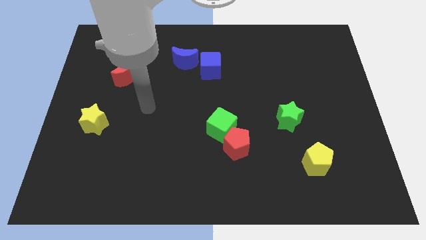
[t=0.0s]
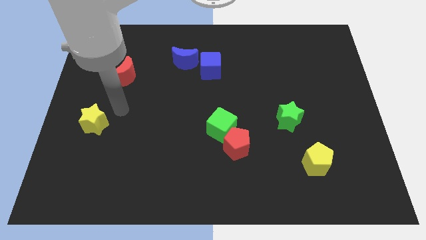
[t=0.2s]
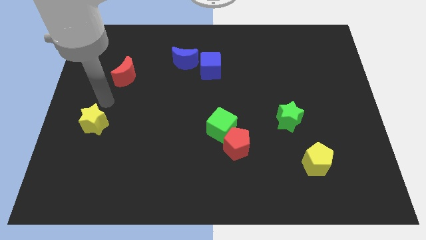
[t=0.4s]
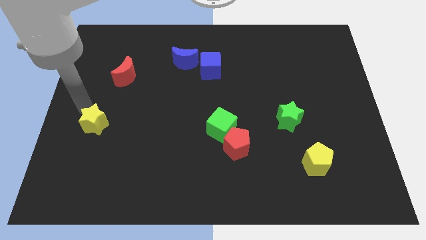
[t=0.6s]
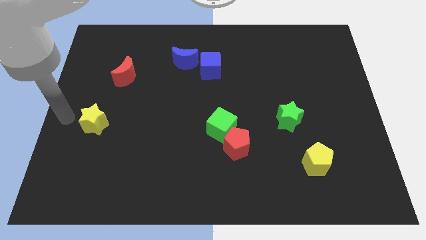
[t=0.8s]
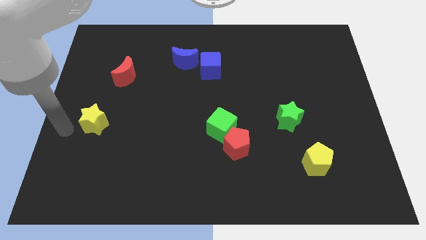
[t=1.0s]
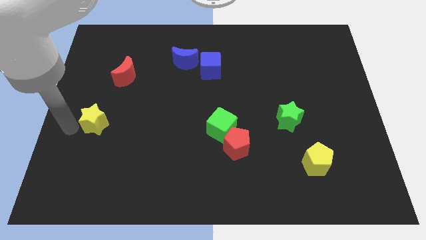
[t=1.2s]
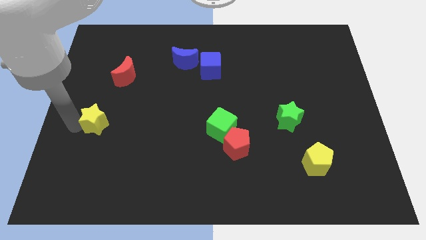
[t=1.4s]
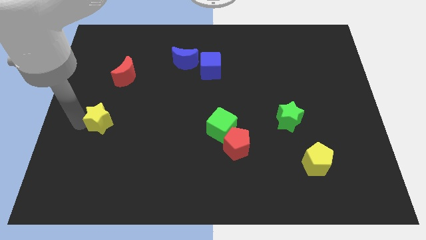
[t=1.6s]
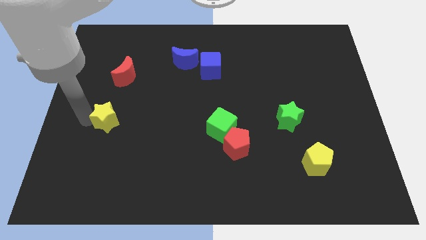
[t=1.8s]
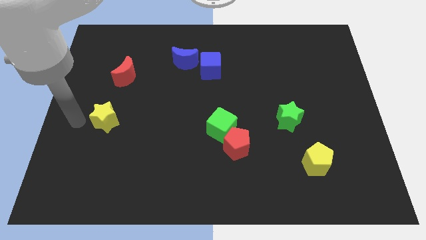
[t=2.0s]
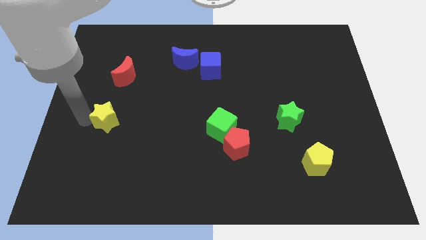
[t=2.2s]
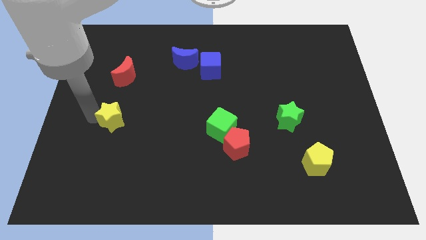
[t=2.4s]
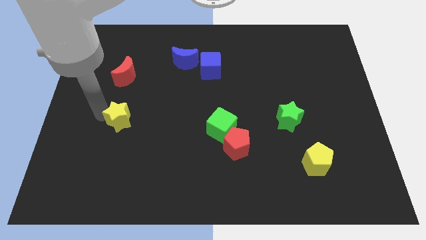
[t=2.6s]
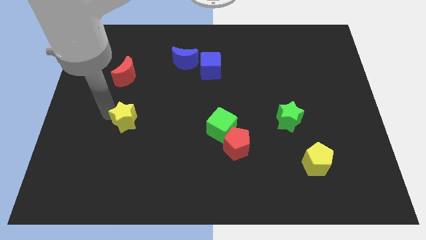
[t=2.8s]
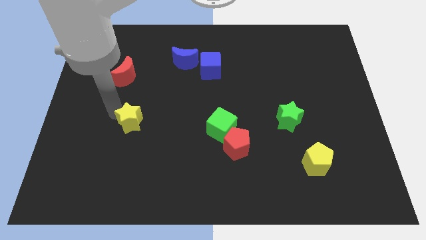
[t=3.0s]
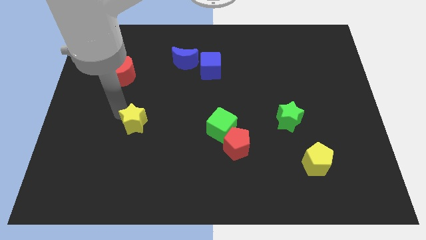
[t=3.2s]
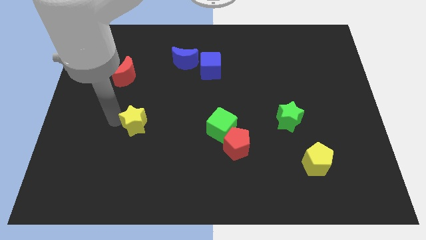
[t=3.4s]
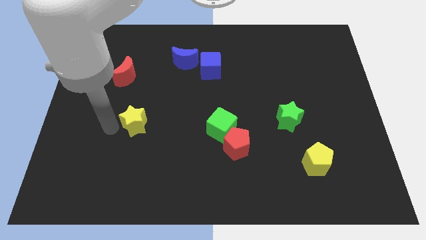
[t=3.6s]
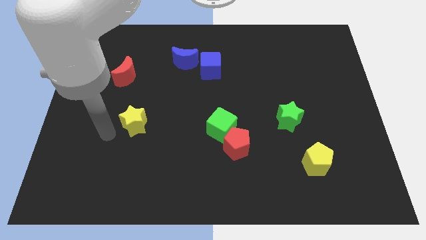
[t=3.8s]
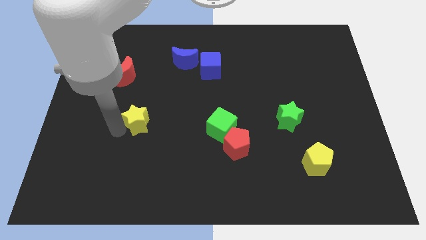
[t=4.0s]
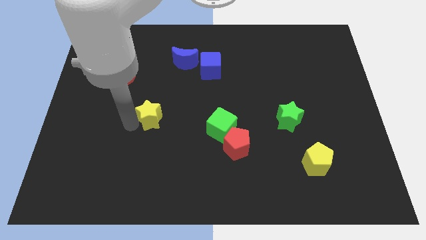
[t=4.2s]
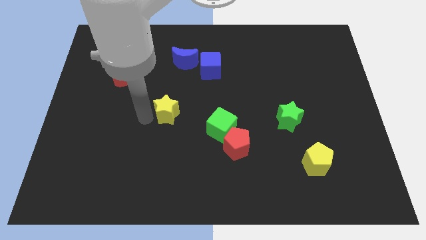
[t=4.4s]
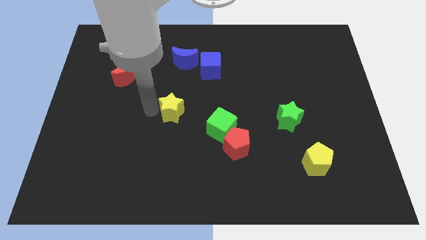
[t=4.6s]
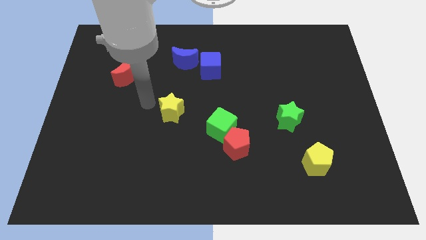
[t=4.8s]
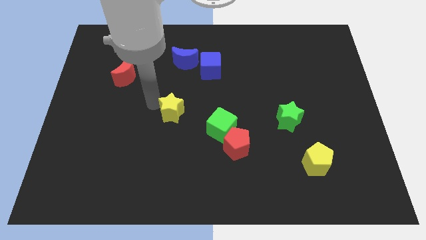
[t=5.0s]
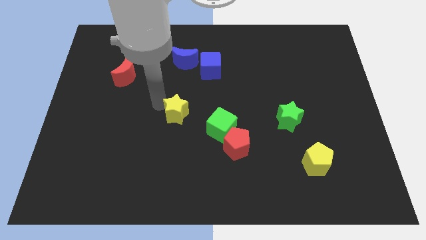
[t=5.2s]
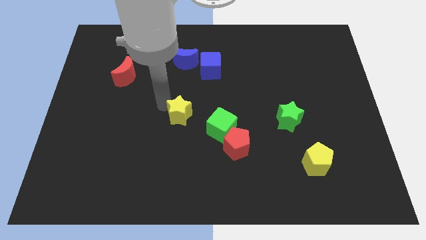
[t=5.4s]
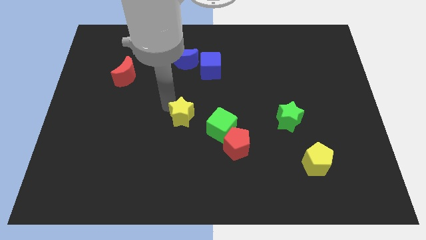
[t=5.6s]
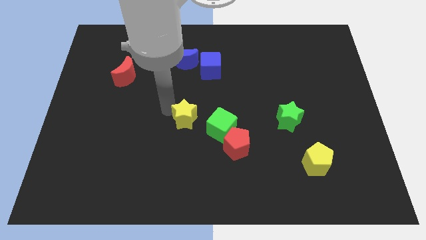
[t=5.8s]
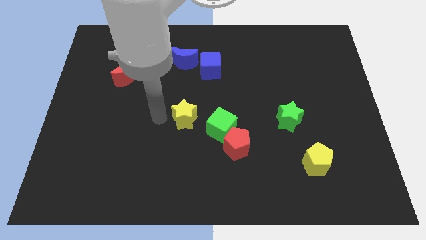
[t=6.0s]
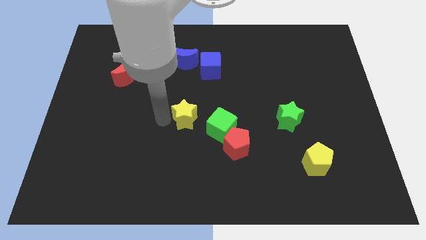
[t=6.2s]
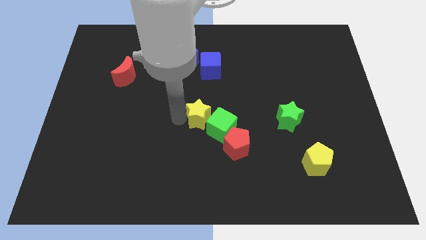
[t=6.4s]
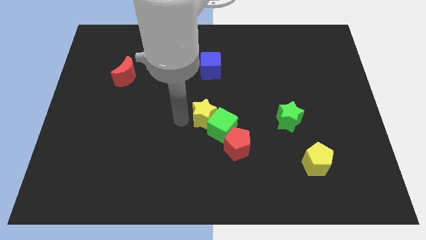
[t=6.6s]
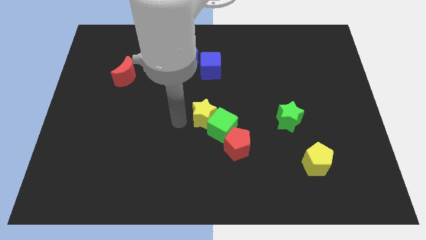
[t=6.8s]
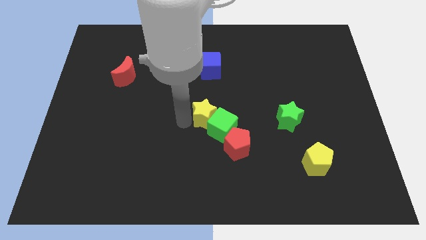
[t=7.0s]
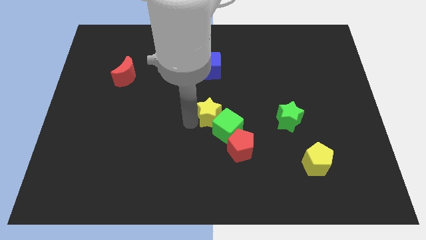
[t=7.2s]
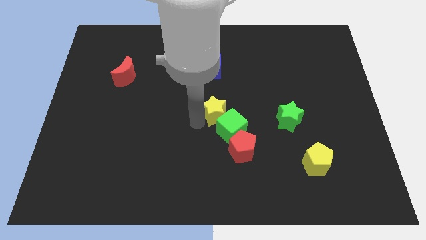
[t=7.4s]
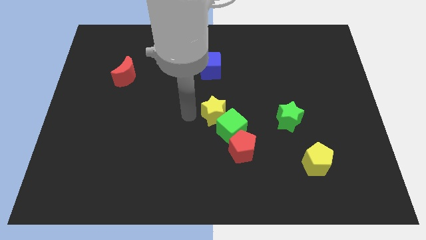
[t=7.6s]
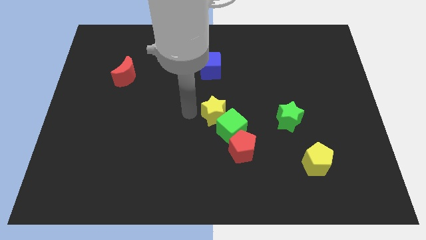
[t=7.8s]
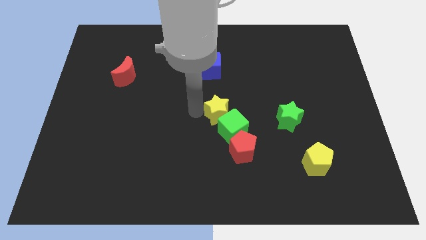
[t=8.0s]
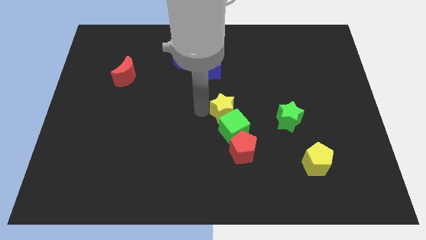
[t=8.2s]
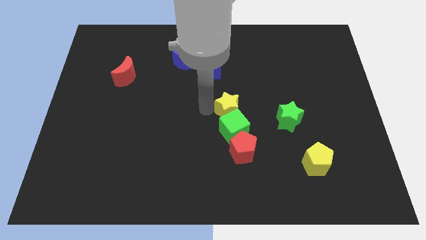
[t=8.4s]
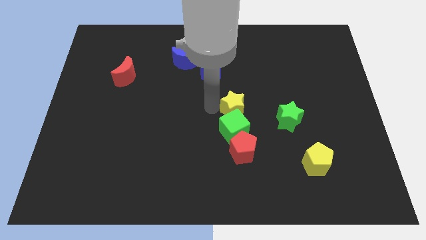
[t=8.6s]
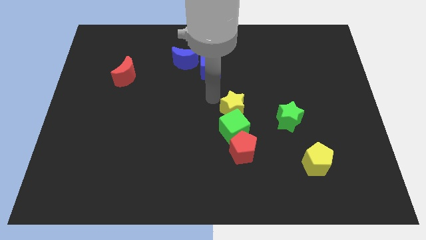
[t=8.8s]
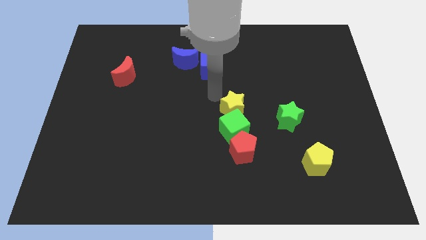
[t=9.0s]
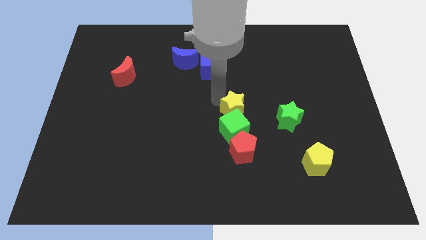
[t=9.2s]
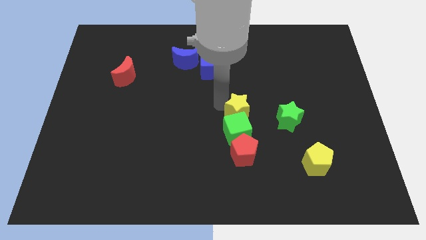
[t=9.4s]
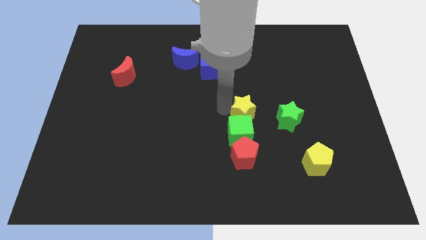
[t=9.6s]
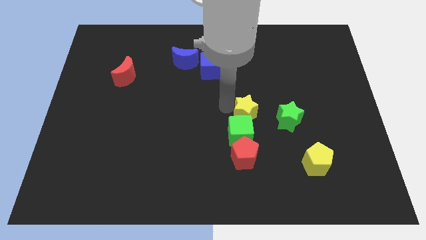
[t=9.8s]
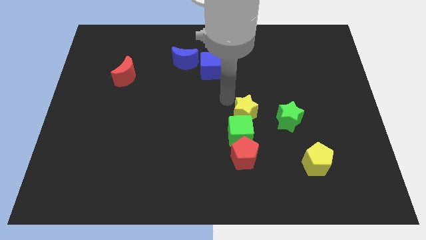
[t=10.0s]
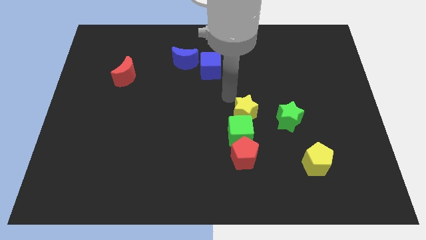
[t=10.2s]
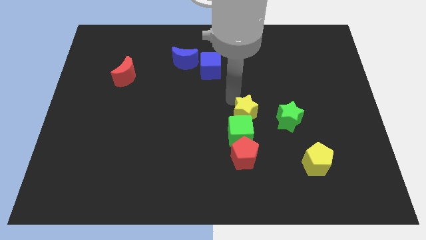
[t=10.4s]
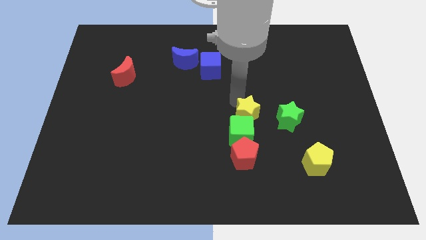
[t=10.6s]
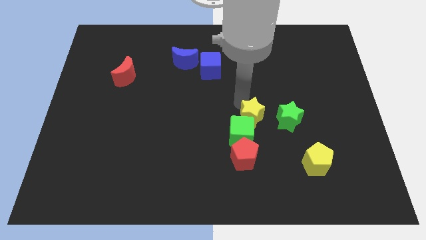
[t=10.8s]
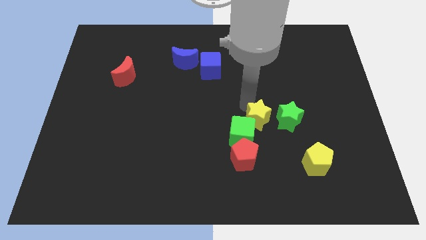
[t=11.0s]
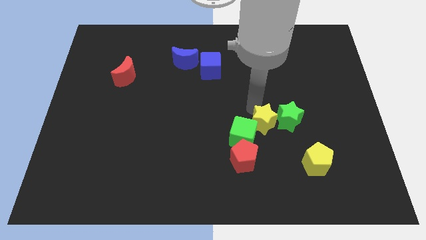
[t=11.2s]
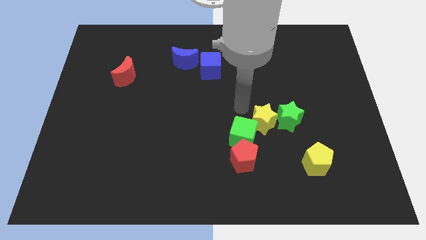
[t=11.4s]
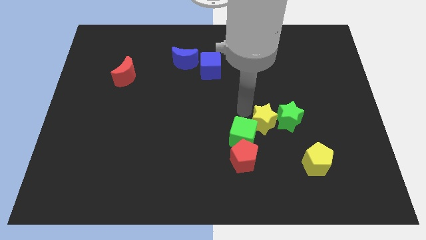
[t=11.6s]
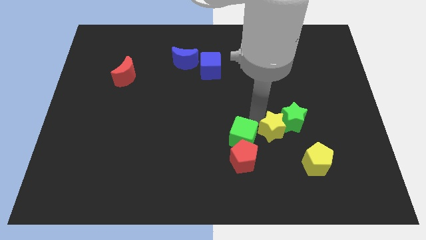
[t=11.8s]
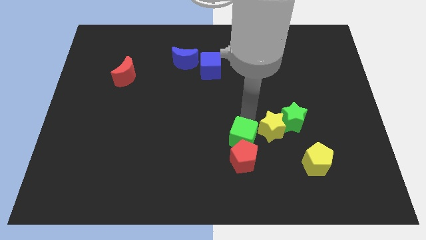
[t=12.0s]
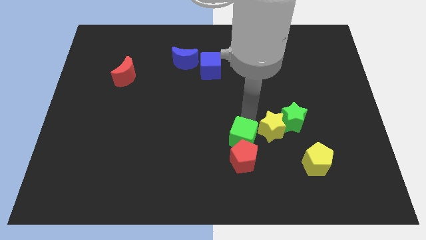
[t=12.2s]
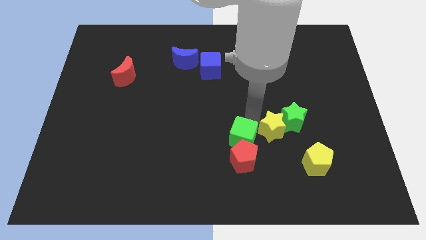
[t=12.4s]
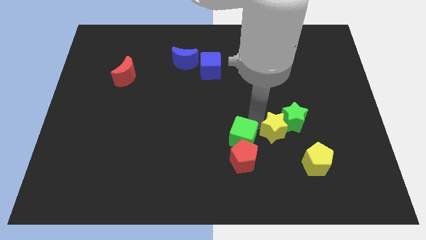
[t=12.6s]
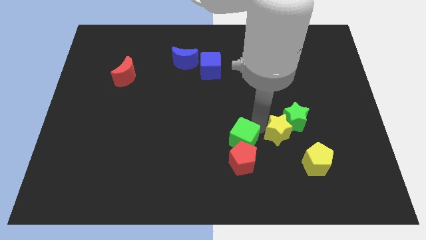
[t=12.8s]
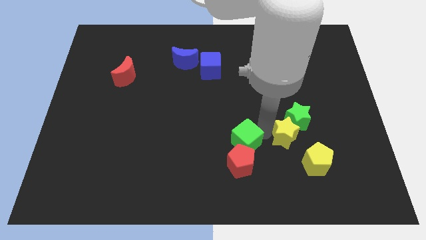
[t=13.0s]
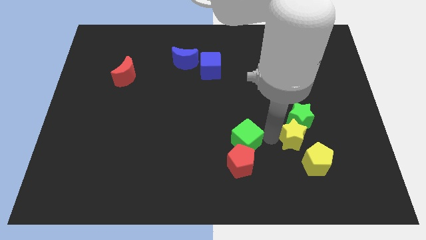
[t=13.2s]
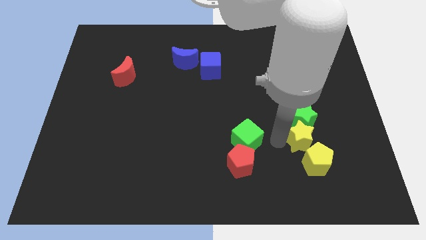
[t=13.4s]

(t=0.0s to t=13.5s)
push the yellow star diagonally down and to the right of the green star
